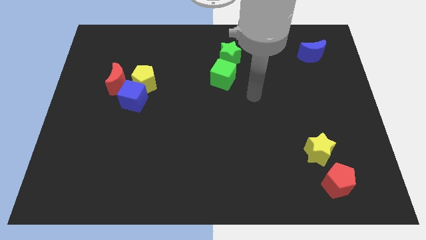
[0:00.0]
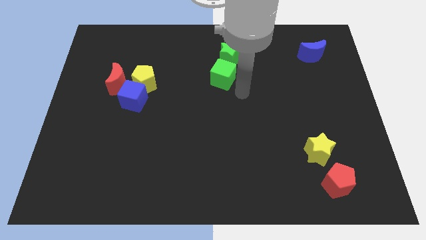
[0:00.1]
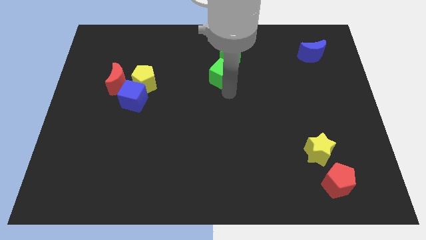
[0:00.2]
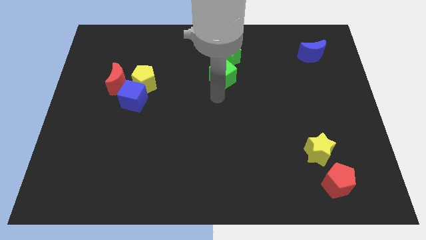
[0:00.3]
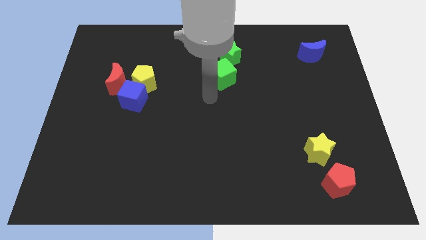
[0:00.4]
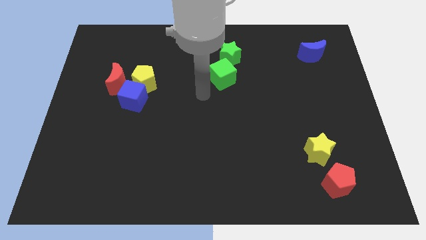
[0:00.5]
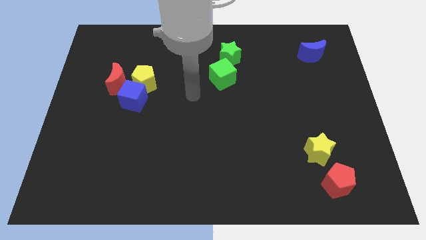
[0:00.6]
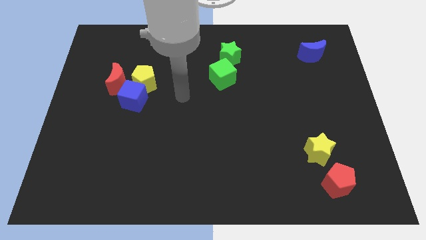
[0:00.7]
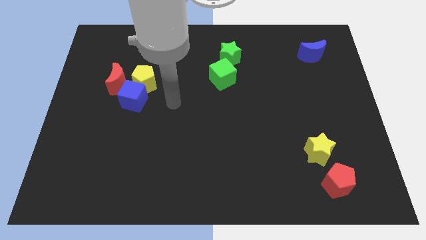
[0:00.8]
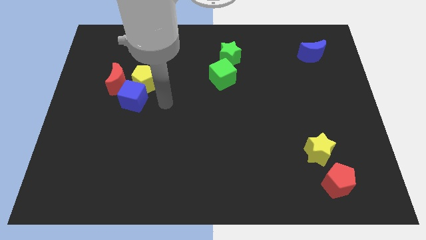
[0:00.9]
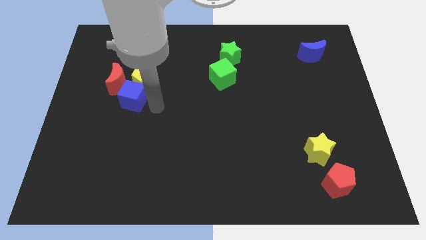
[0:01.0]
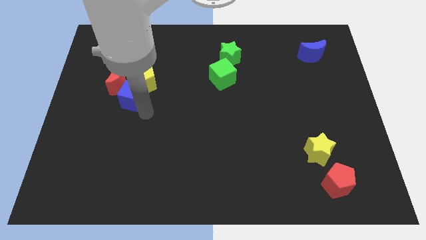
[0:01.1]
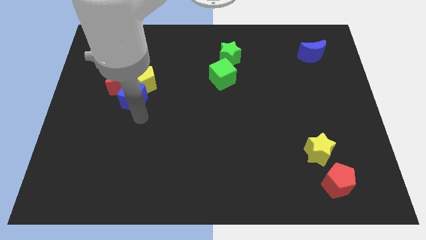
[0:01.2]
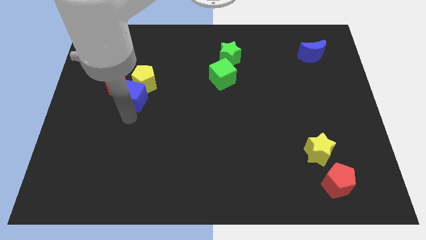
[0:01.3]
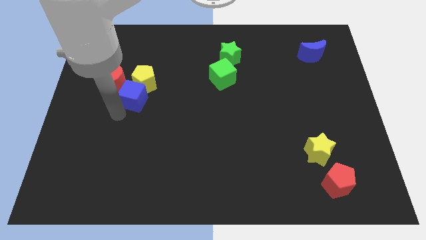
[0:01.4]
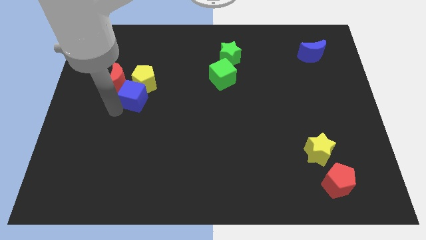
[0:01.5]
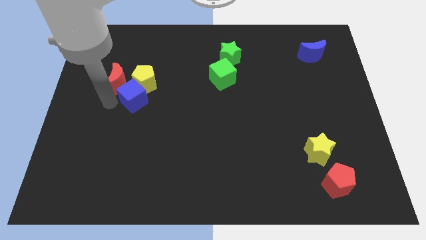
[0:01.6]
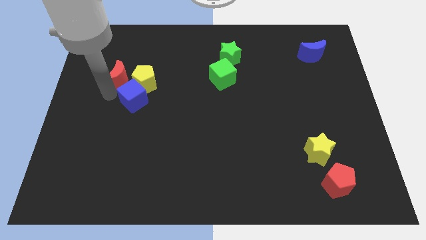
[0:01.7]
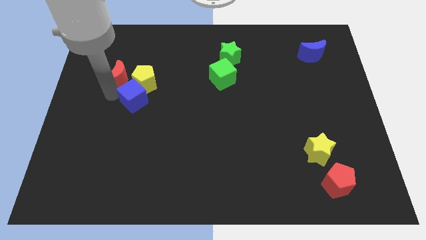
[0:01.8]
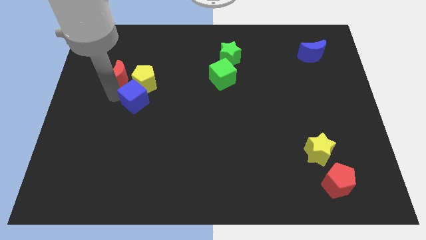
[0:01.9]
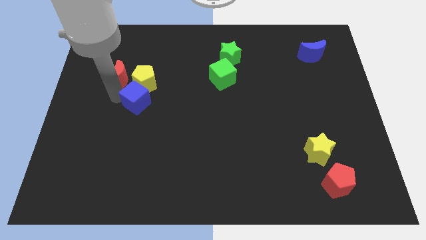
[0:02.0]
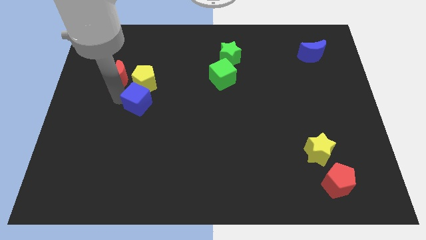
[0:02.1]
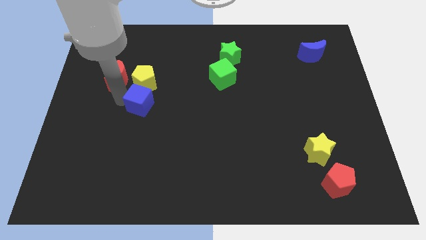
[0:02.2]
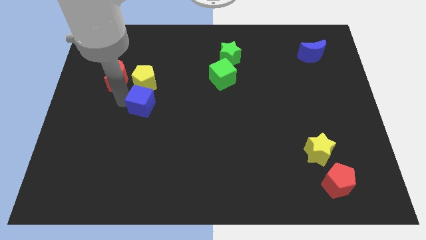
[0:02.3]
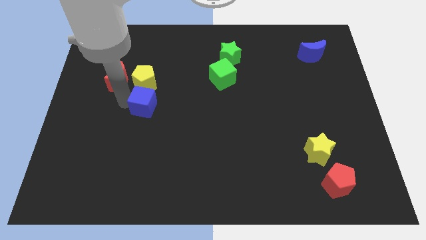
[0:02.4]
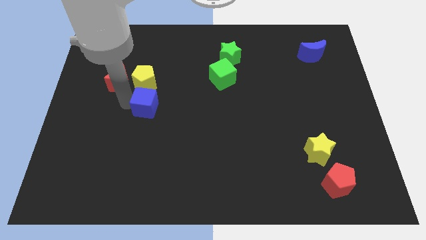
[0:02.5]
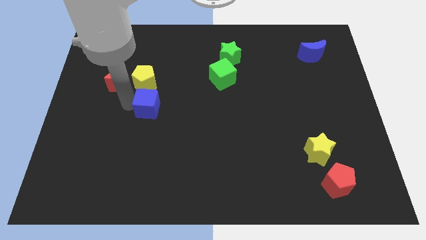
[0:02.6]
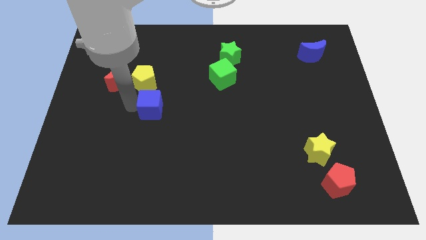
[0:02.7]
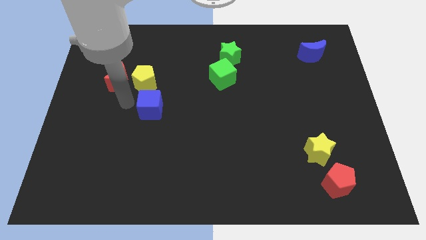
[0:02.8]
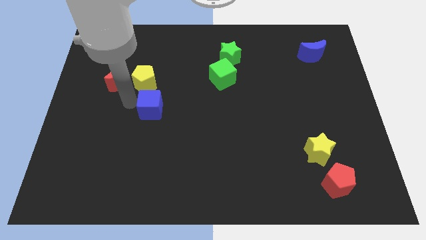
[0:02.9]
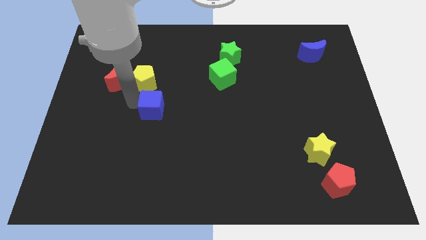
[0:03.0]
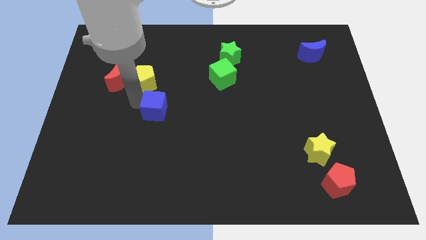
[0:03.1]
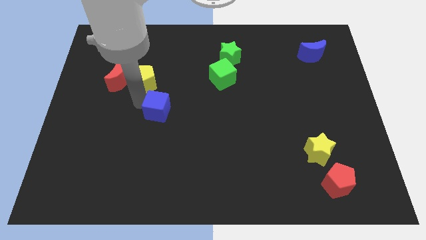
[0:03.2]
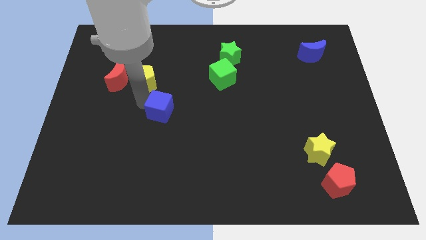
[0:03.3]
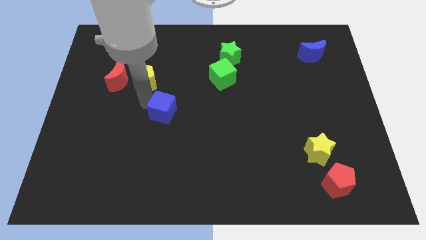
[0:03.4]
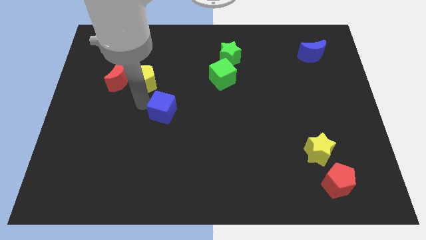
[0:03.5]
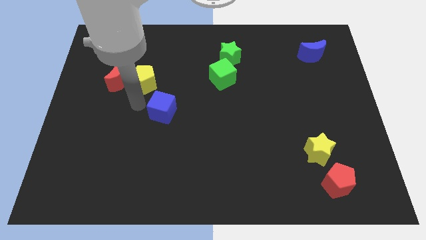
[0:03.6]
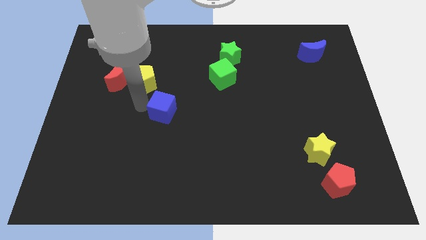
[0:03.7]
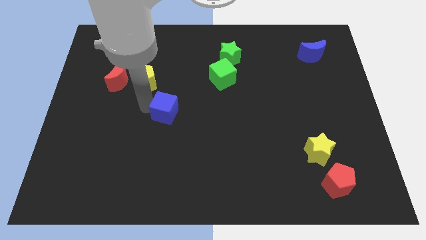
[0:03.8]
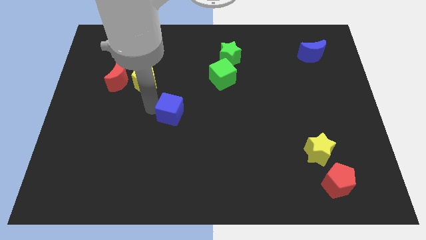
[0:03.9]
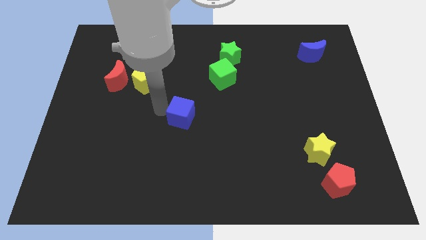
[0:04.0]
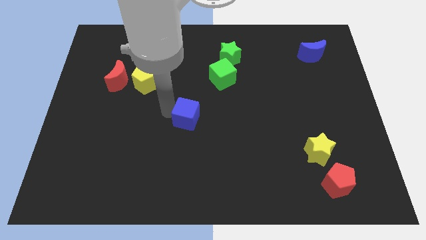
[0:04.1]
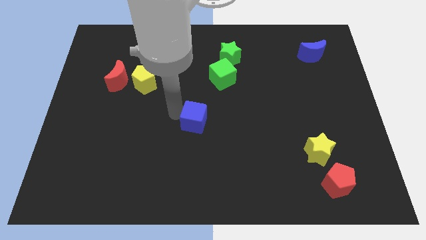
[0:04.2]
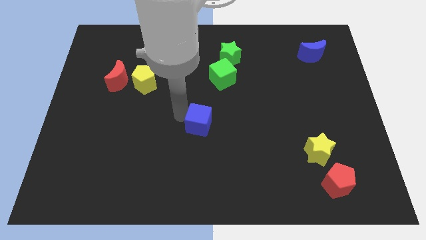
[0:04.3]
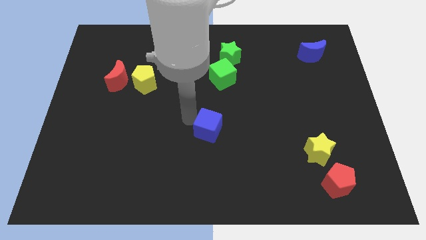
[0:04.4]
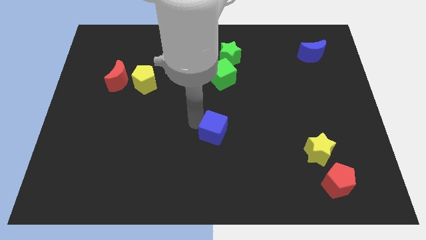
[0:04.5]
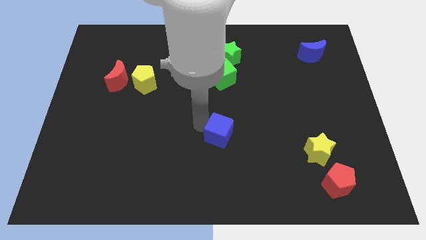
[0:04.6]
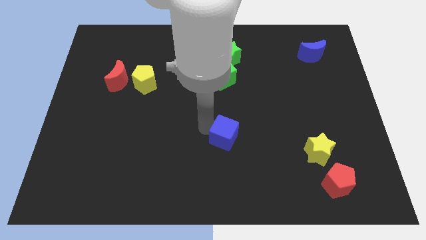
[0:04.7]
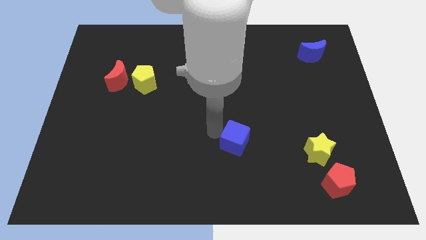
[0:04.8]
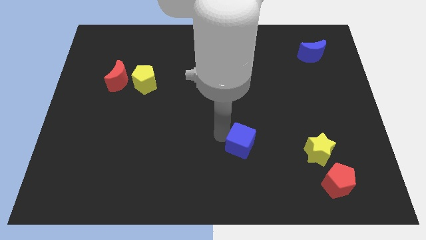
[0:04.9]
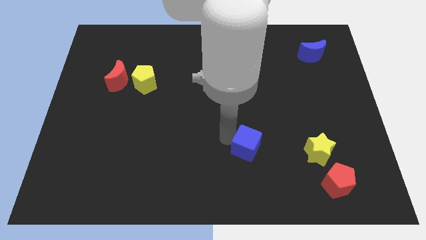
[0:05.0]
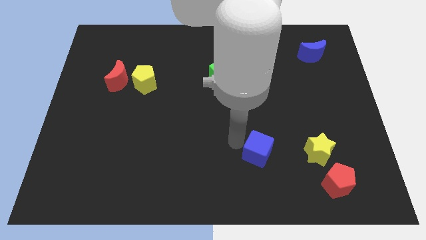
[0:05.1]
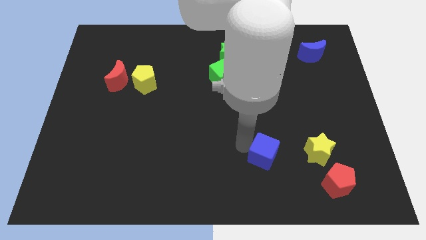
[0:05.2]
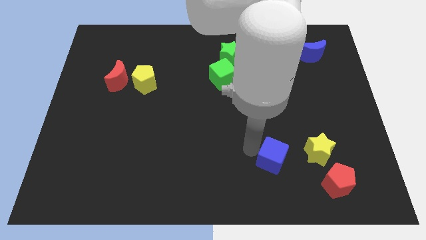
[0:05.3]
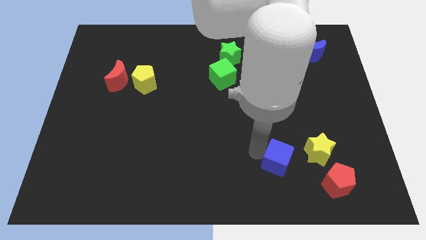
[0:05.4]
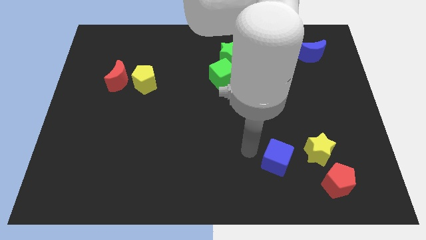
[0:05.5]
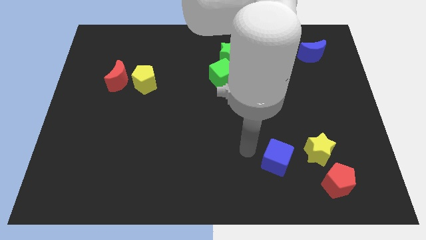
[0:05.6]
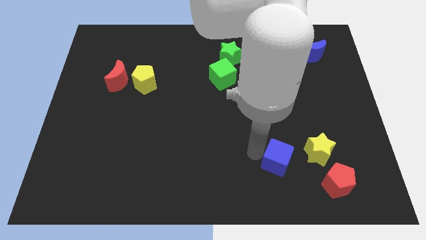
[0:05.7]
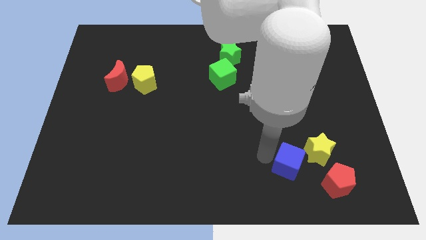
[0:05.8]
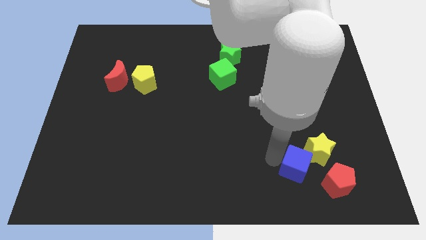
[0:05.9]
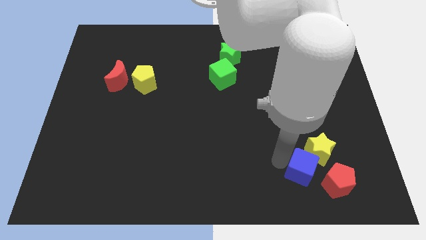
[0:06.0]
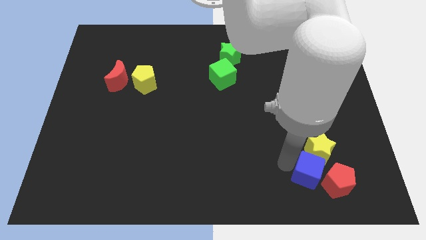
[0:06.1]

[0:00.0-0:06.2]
put the blue cube towards the red pentagon

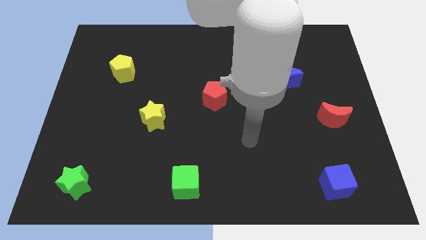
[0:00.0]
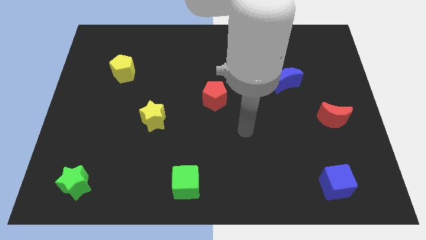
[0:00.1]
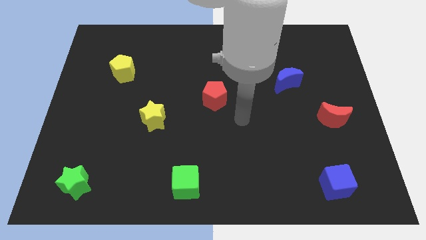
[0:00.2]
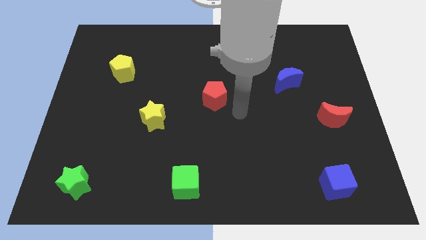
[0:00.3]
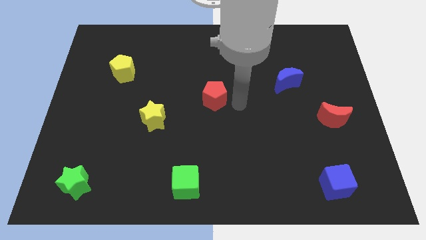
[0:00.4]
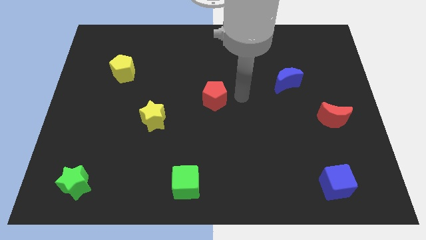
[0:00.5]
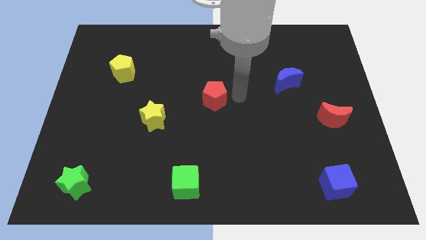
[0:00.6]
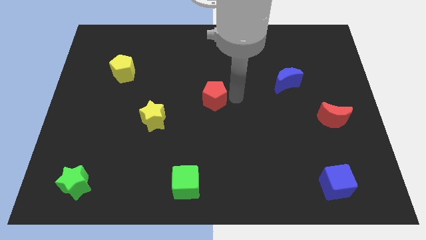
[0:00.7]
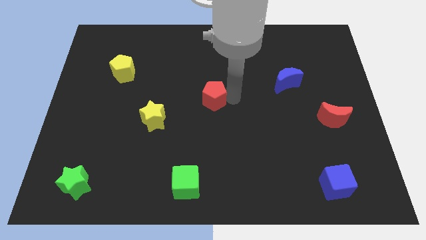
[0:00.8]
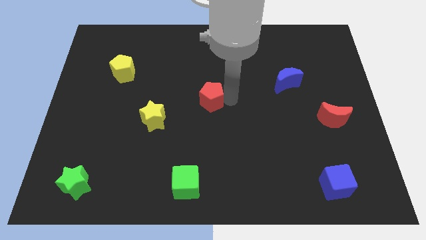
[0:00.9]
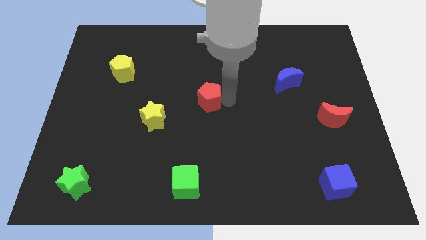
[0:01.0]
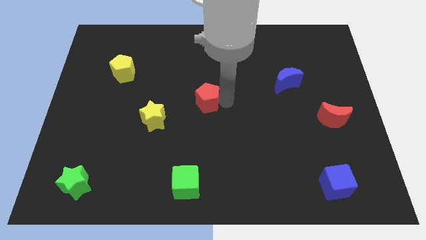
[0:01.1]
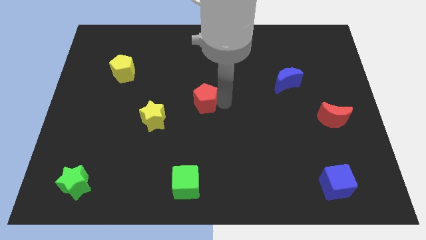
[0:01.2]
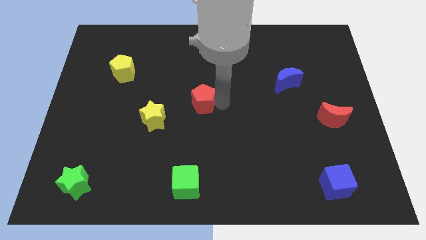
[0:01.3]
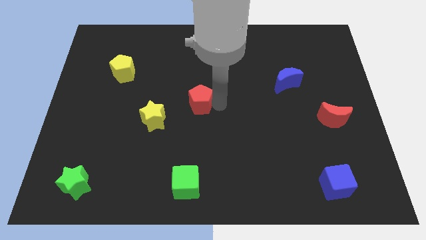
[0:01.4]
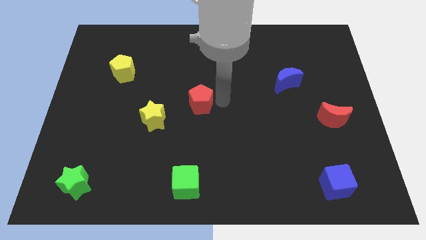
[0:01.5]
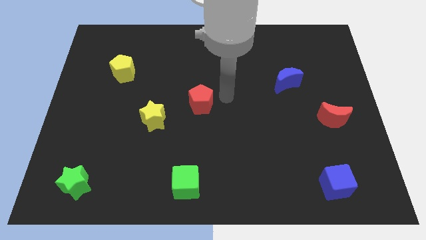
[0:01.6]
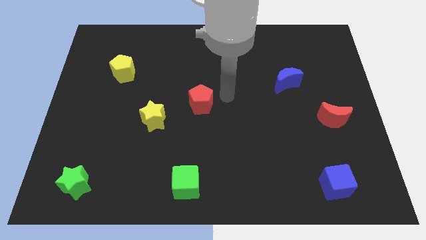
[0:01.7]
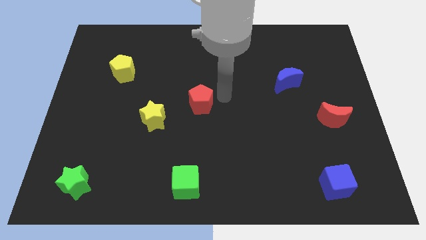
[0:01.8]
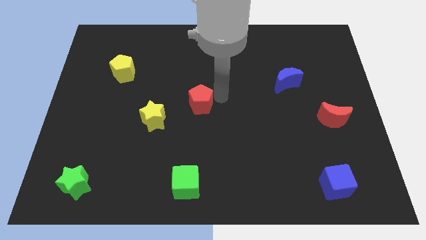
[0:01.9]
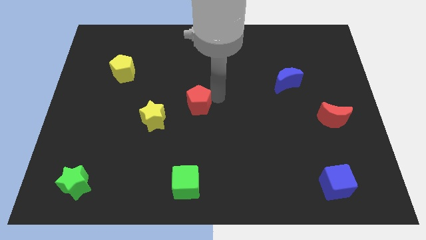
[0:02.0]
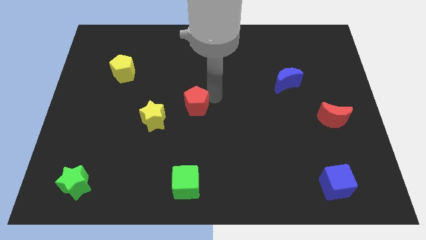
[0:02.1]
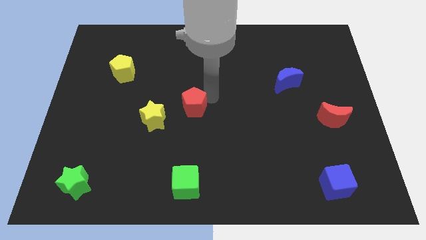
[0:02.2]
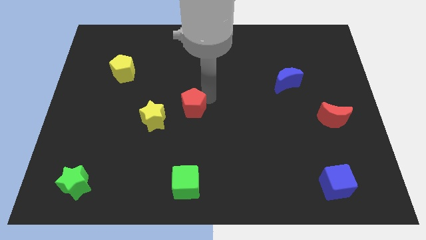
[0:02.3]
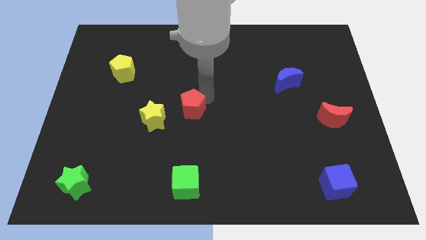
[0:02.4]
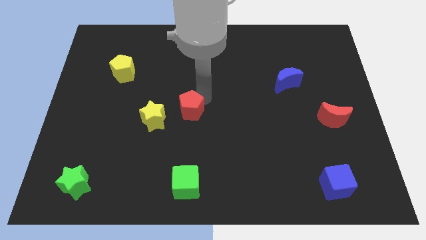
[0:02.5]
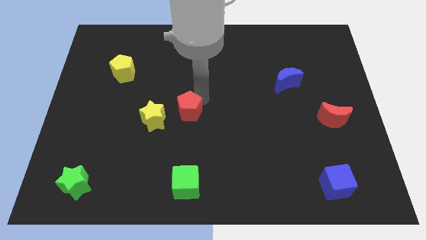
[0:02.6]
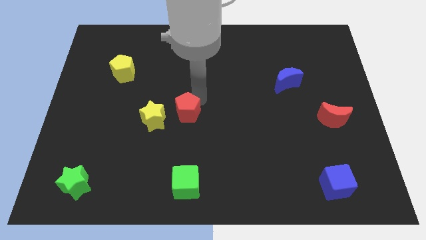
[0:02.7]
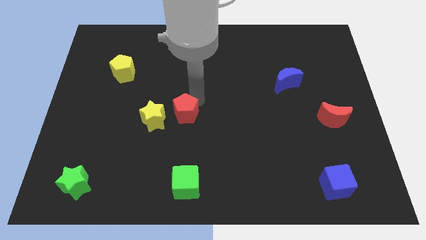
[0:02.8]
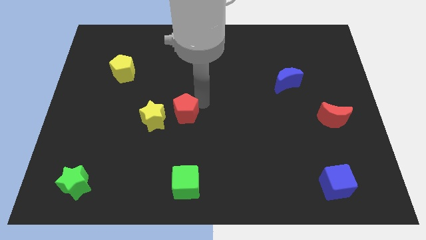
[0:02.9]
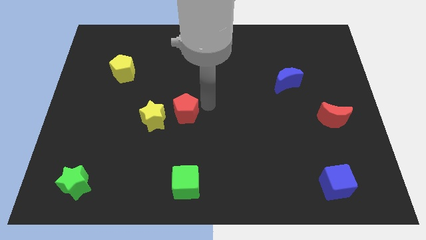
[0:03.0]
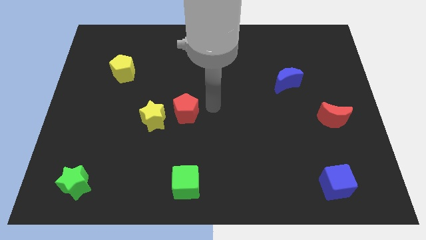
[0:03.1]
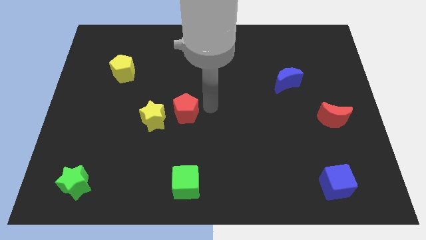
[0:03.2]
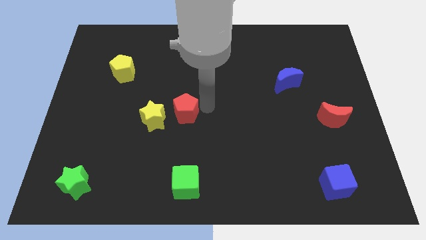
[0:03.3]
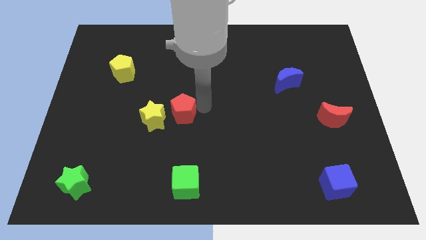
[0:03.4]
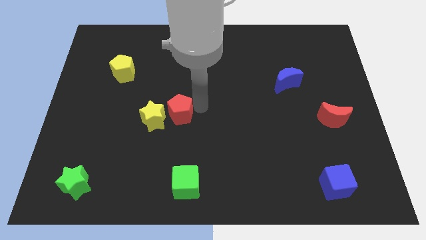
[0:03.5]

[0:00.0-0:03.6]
move the red pentagon next to the yellow star
